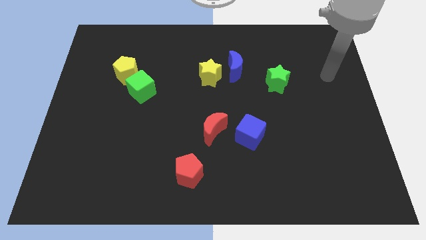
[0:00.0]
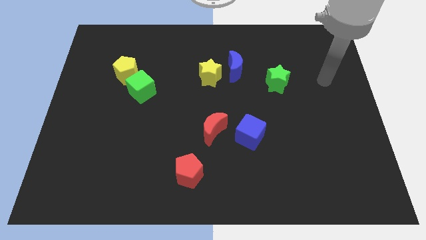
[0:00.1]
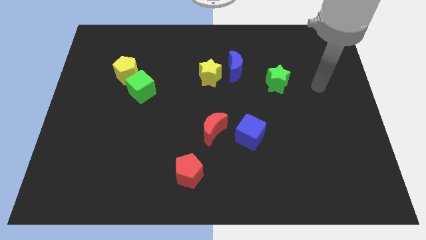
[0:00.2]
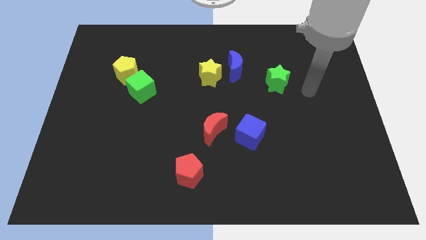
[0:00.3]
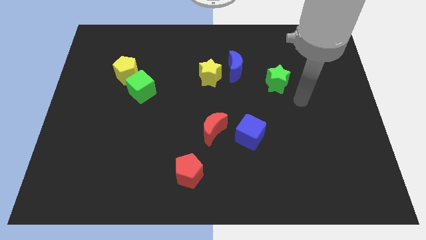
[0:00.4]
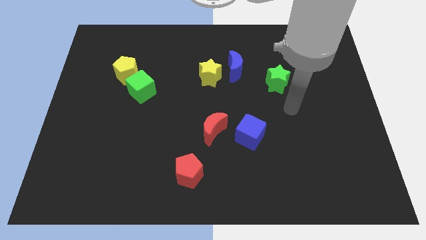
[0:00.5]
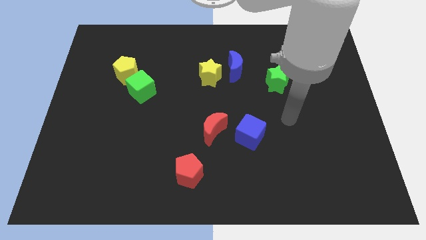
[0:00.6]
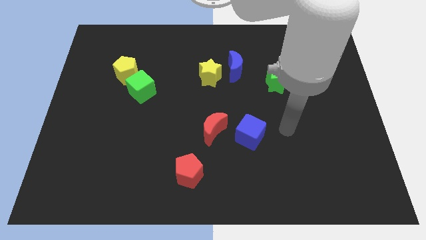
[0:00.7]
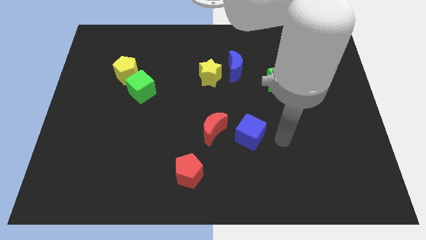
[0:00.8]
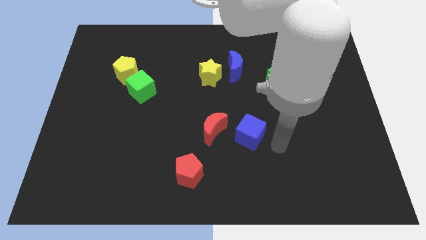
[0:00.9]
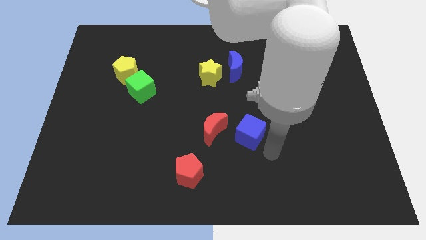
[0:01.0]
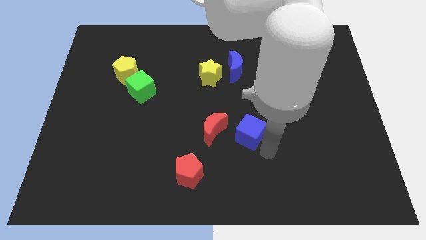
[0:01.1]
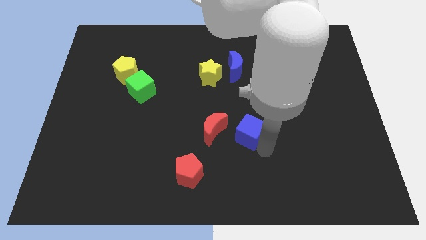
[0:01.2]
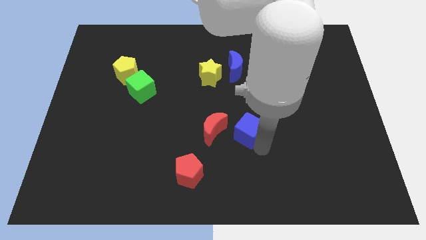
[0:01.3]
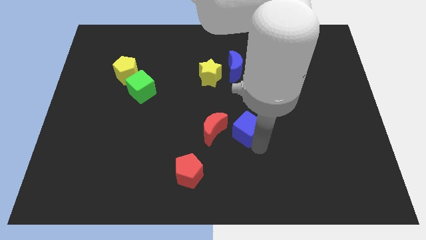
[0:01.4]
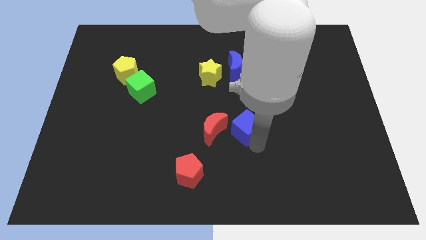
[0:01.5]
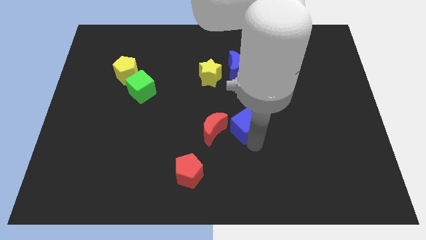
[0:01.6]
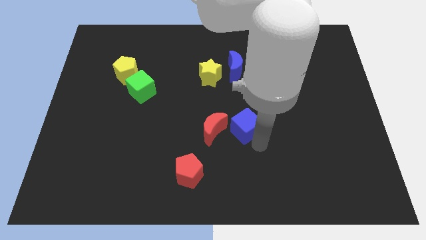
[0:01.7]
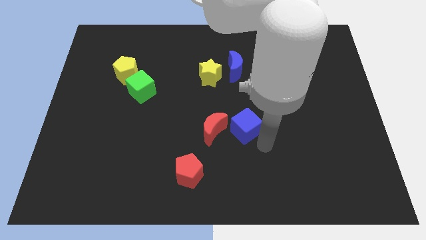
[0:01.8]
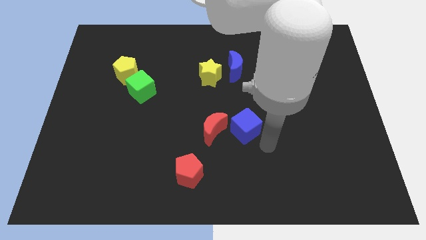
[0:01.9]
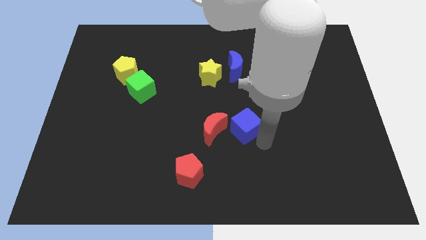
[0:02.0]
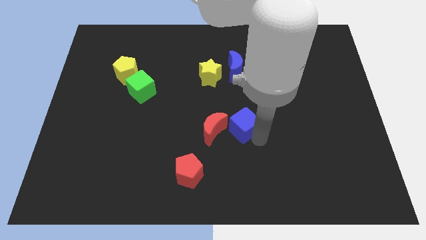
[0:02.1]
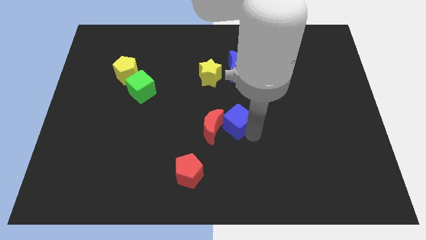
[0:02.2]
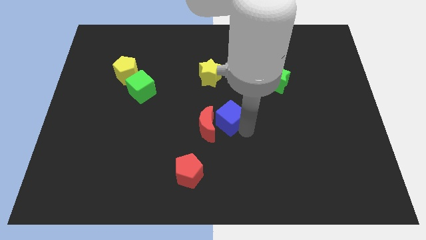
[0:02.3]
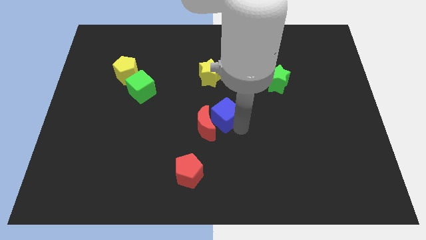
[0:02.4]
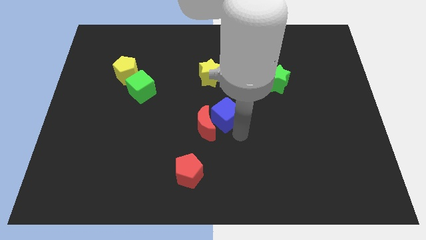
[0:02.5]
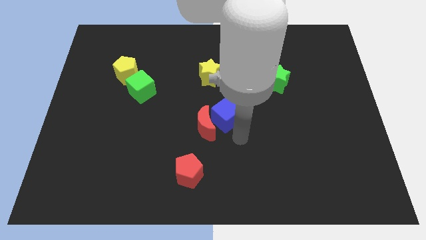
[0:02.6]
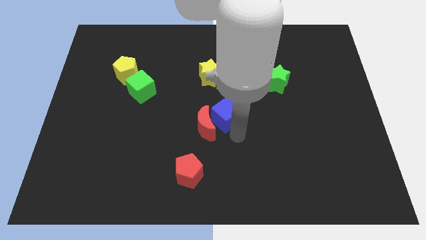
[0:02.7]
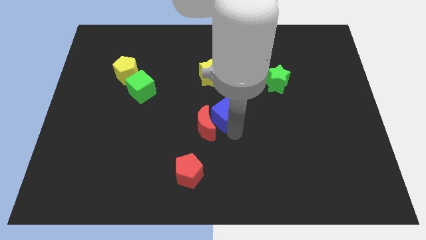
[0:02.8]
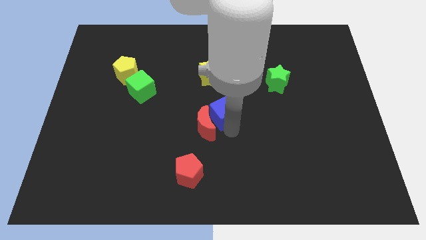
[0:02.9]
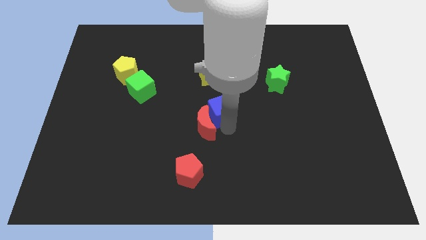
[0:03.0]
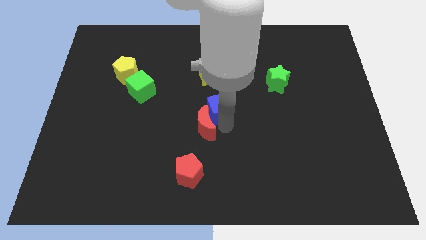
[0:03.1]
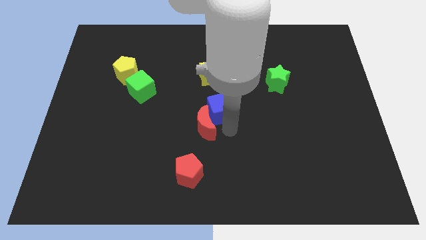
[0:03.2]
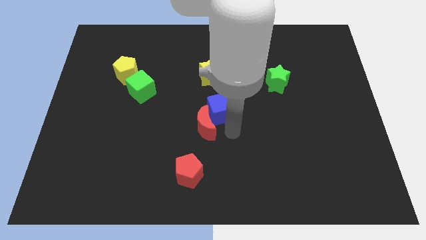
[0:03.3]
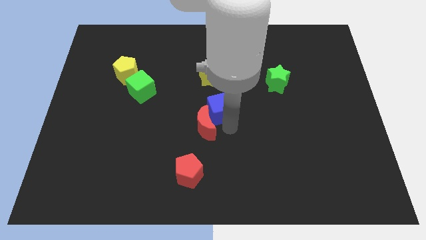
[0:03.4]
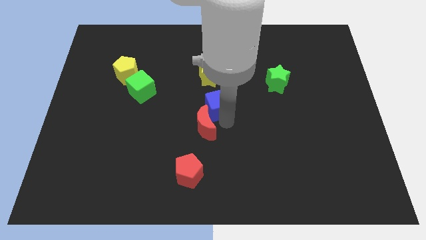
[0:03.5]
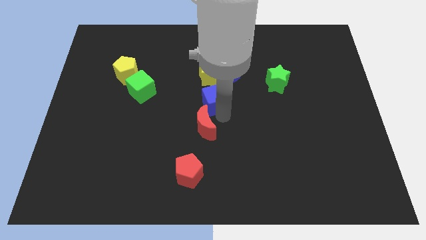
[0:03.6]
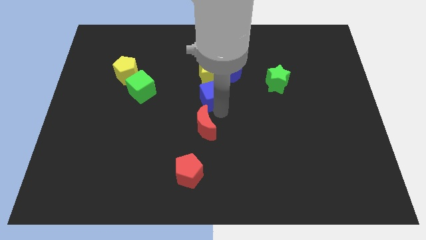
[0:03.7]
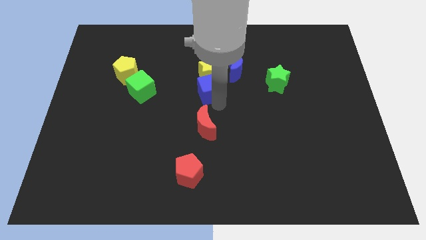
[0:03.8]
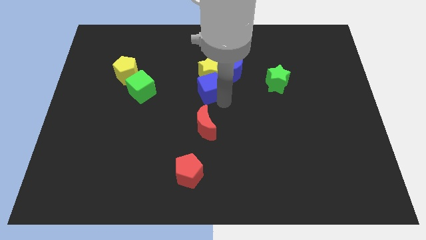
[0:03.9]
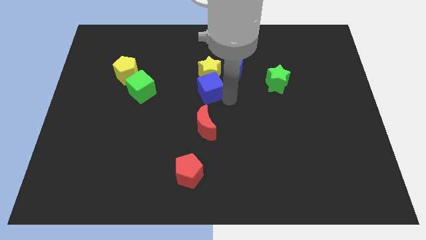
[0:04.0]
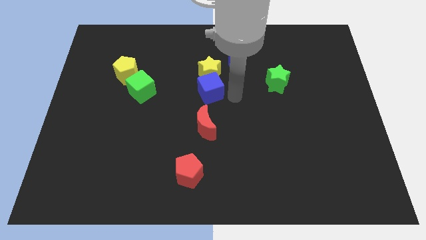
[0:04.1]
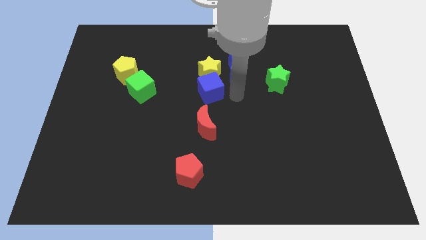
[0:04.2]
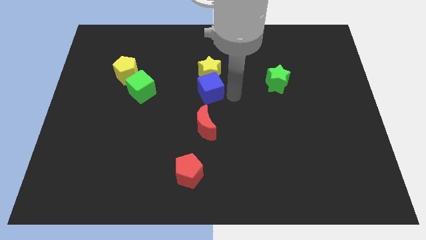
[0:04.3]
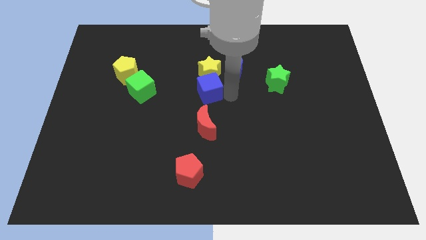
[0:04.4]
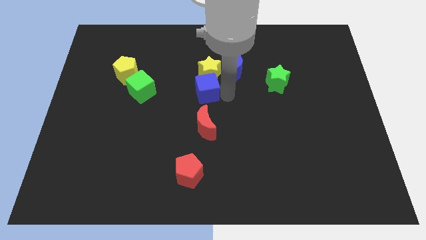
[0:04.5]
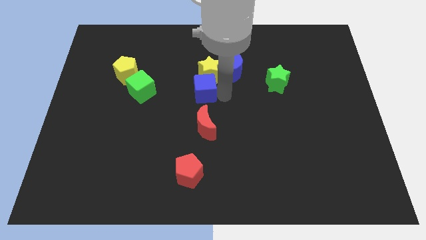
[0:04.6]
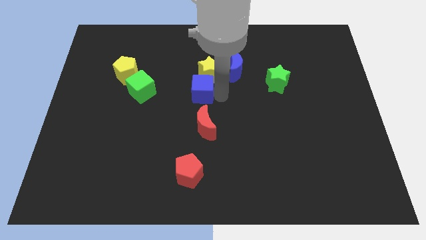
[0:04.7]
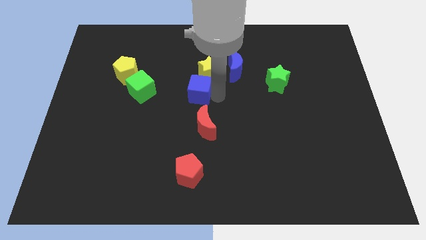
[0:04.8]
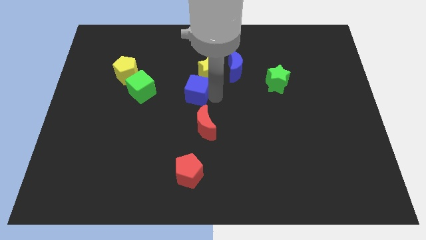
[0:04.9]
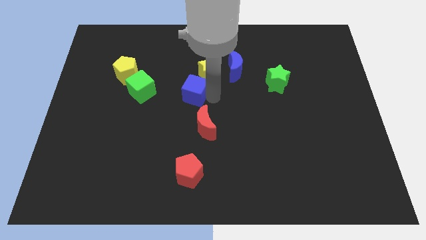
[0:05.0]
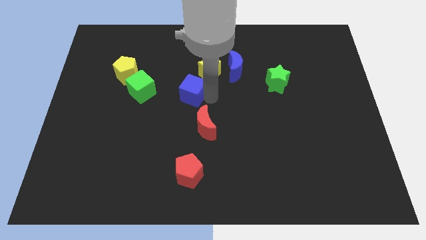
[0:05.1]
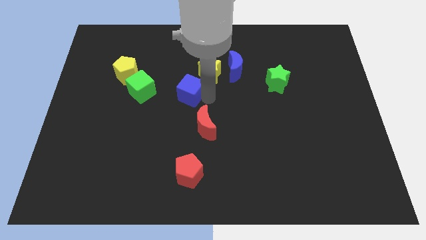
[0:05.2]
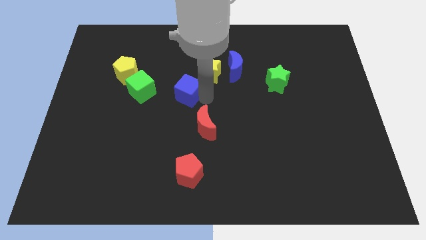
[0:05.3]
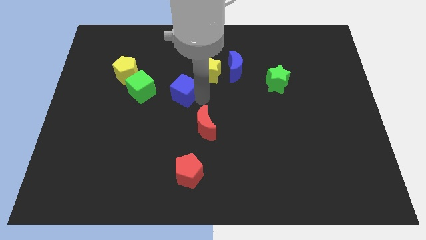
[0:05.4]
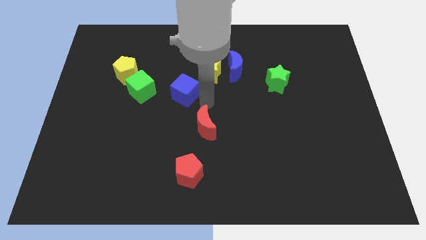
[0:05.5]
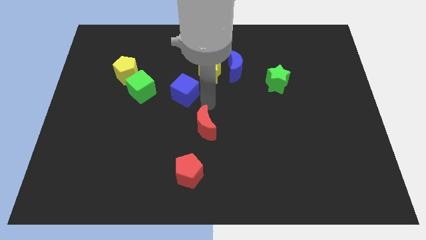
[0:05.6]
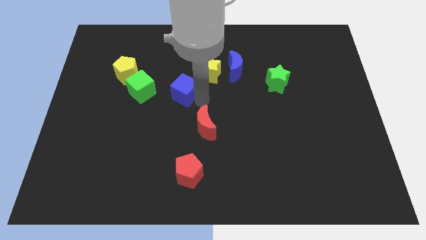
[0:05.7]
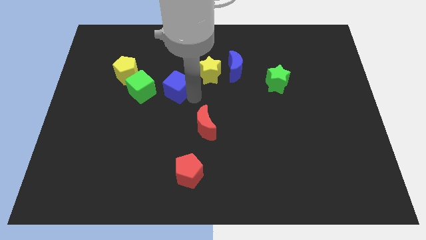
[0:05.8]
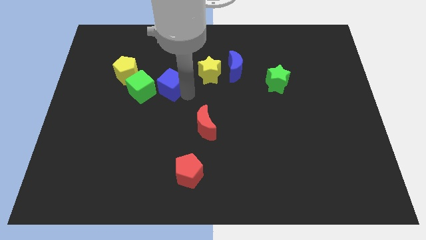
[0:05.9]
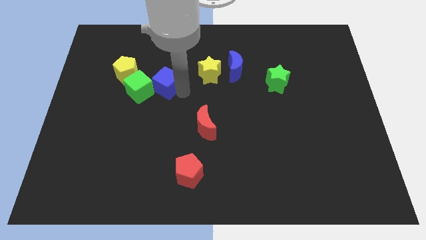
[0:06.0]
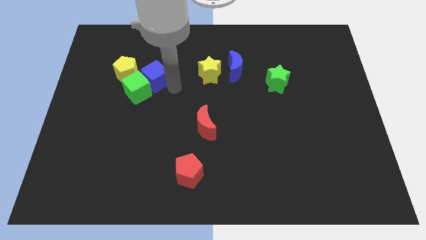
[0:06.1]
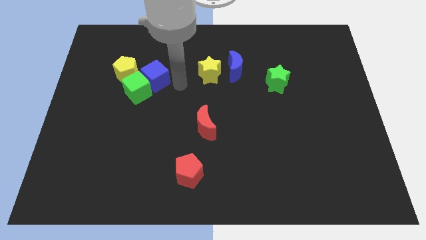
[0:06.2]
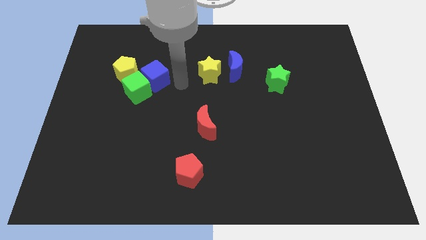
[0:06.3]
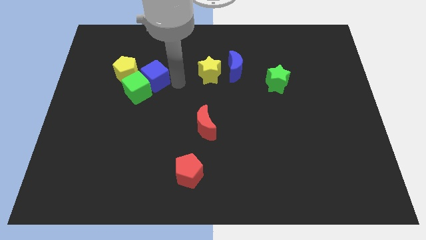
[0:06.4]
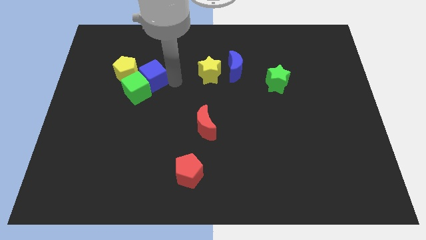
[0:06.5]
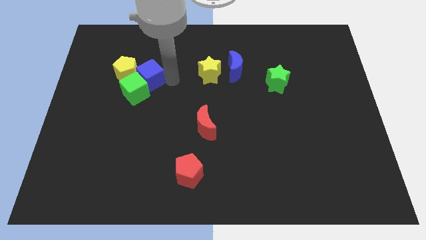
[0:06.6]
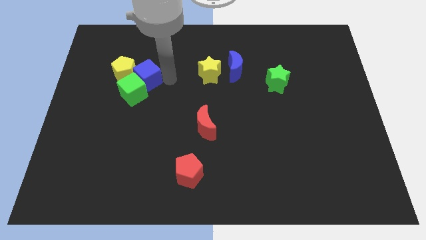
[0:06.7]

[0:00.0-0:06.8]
move the blue cube towards the yellow pentagon
